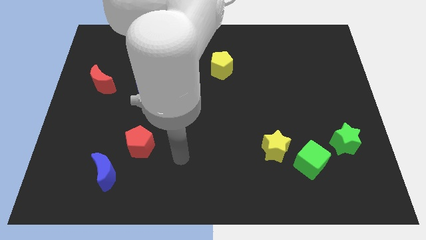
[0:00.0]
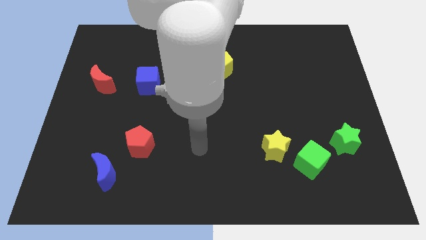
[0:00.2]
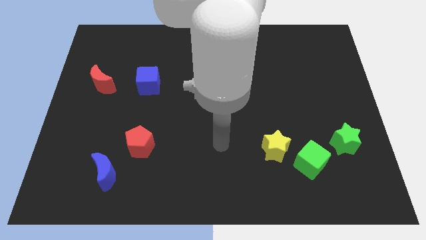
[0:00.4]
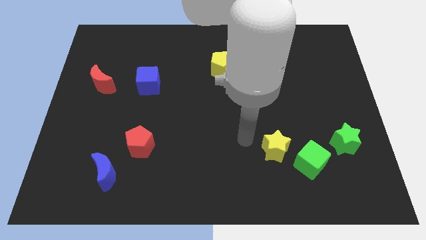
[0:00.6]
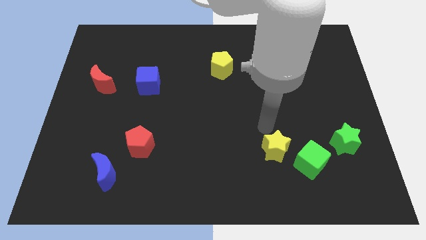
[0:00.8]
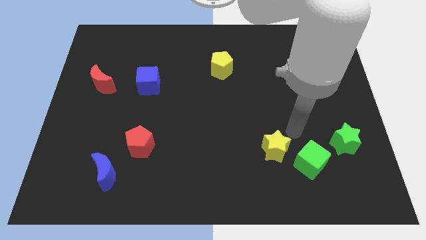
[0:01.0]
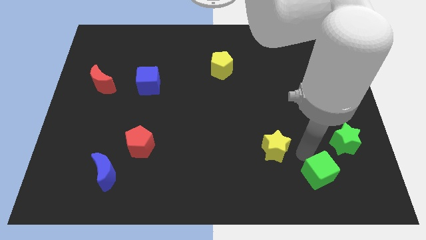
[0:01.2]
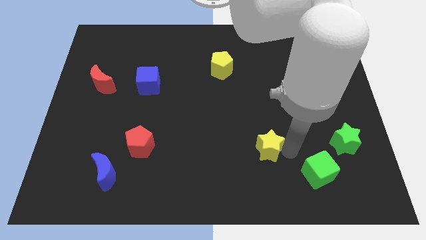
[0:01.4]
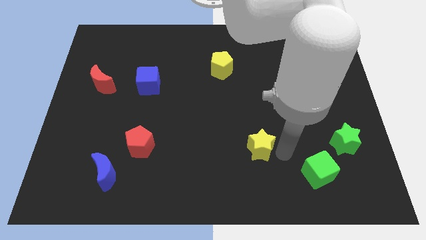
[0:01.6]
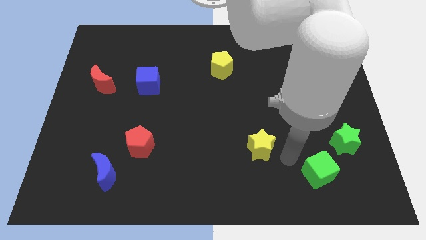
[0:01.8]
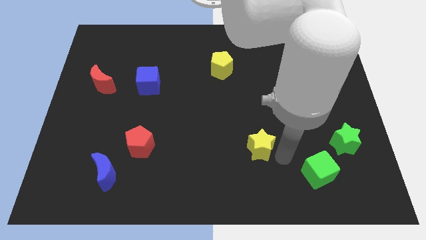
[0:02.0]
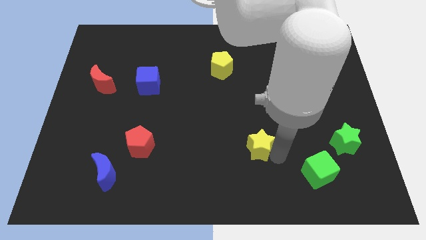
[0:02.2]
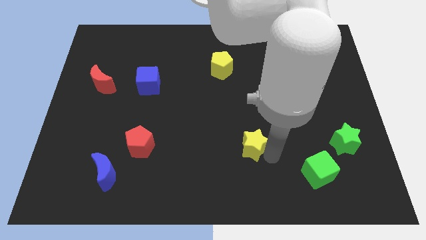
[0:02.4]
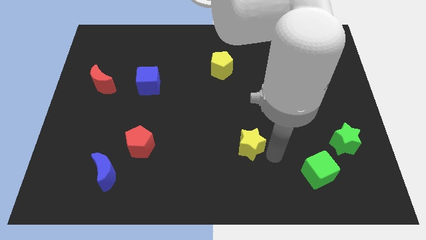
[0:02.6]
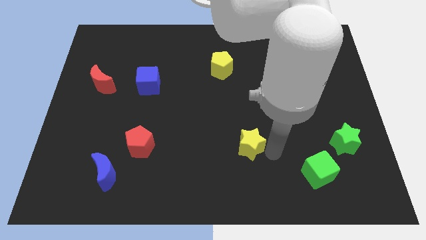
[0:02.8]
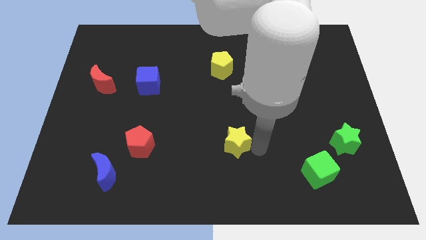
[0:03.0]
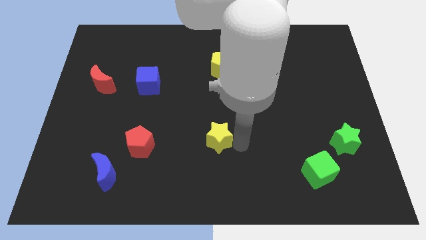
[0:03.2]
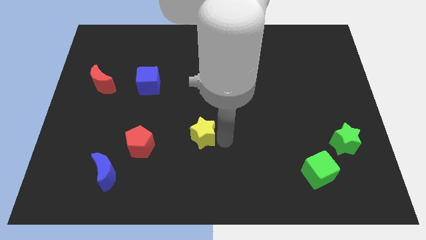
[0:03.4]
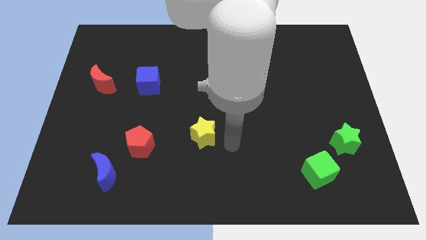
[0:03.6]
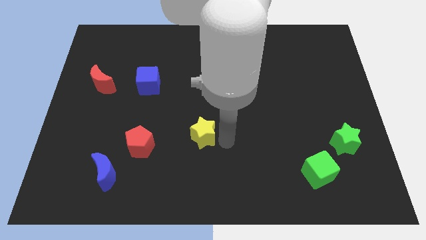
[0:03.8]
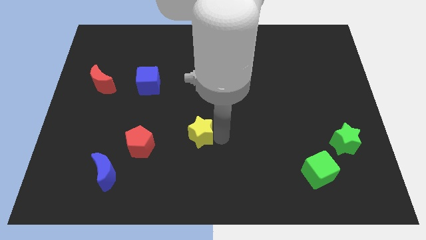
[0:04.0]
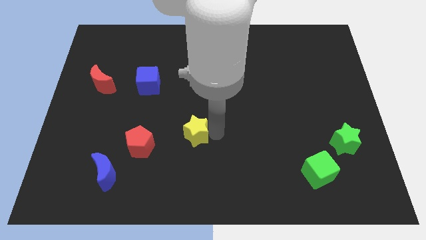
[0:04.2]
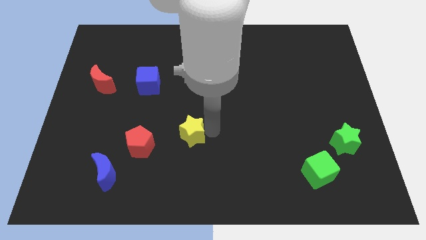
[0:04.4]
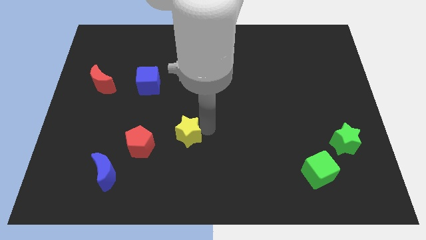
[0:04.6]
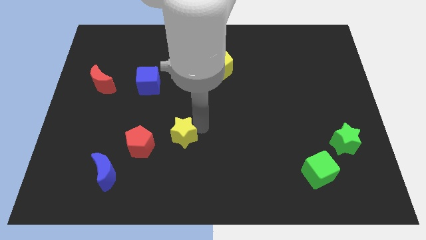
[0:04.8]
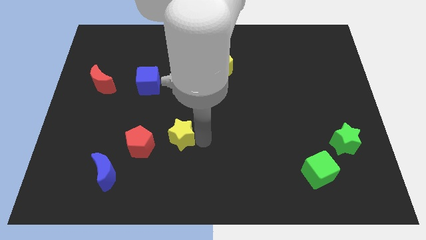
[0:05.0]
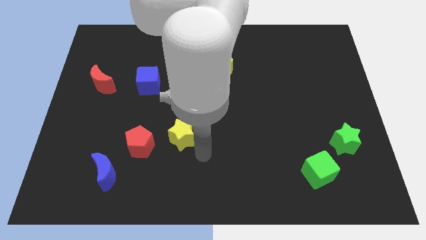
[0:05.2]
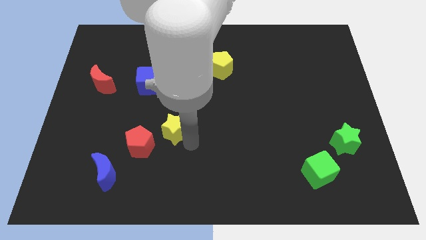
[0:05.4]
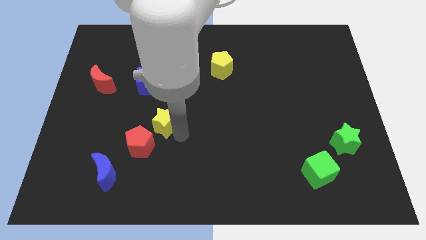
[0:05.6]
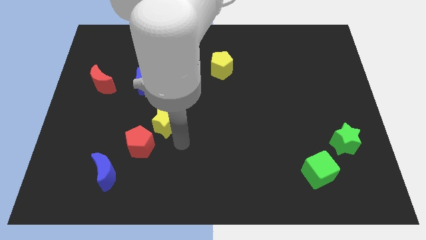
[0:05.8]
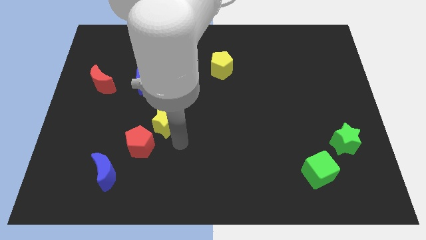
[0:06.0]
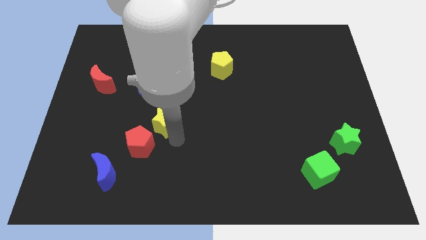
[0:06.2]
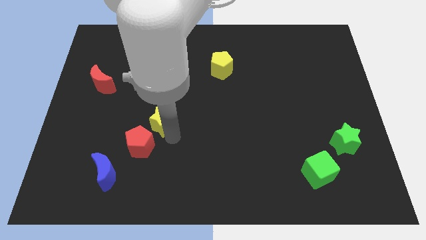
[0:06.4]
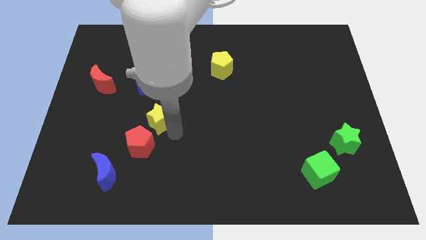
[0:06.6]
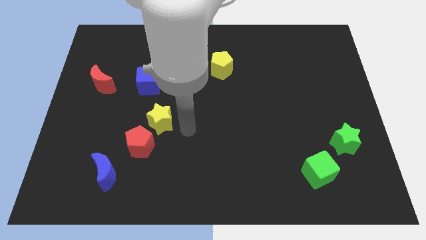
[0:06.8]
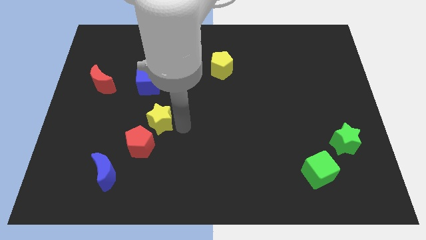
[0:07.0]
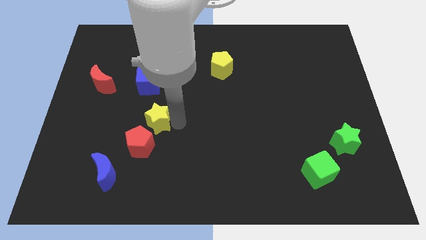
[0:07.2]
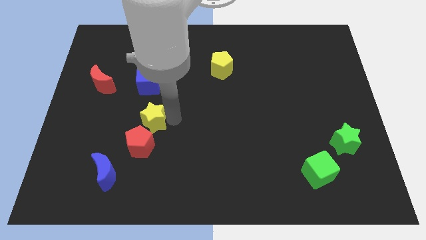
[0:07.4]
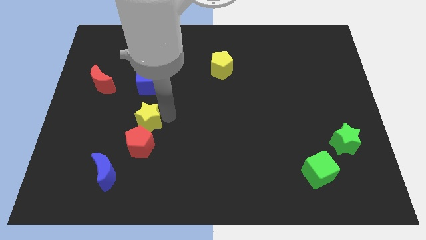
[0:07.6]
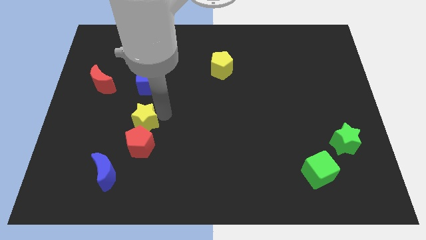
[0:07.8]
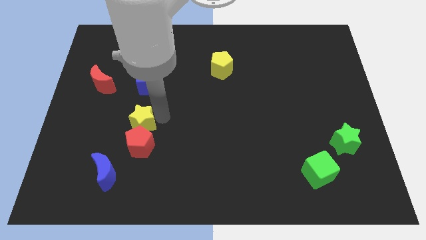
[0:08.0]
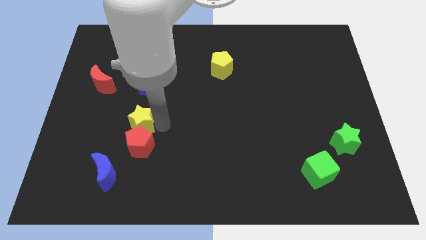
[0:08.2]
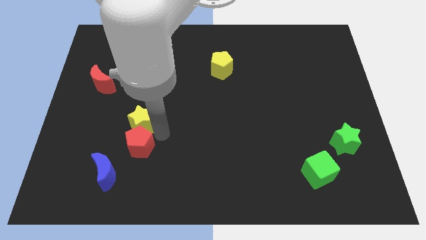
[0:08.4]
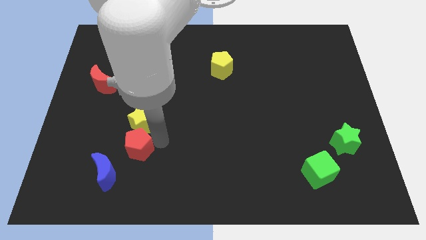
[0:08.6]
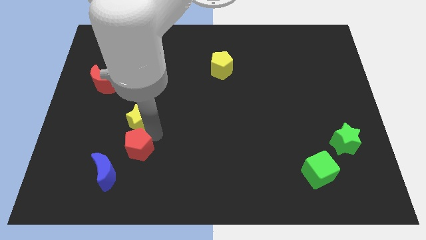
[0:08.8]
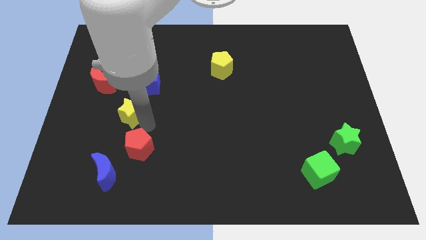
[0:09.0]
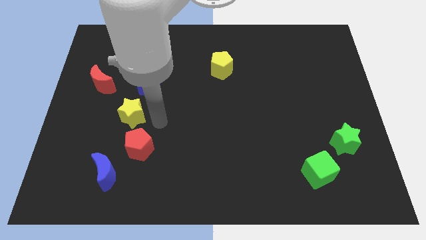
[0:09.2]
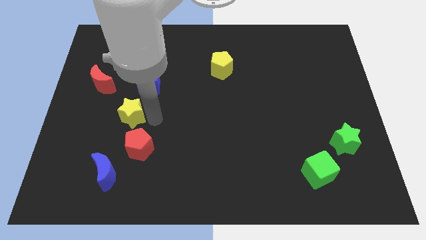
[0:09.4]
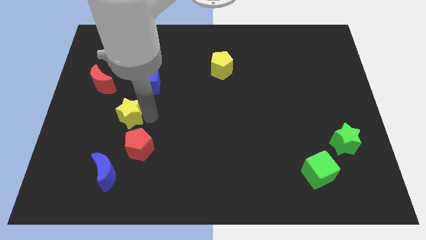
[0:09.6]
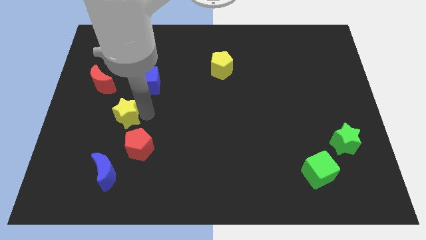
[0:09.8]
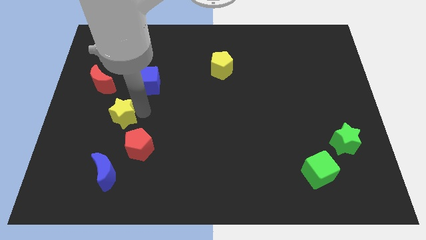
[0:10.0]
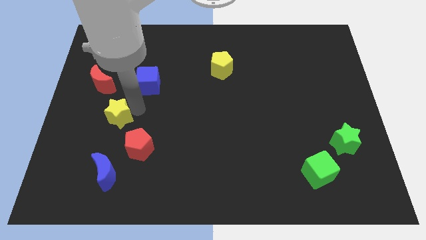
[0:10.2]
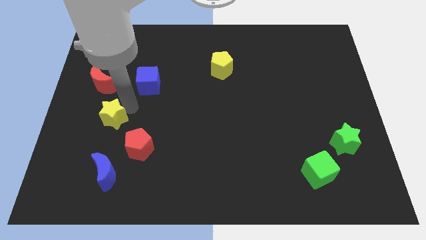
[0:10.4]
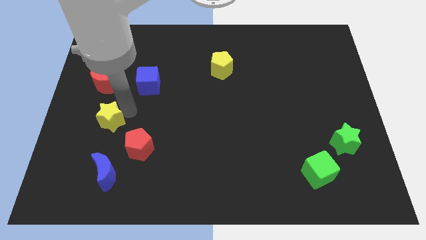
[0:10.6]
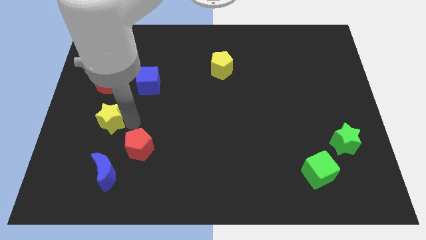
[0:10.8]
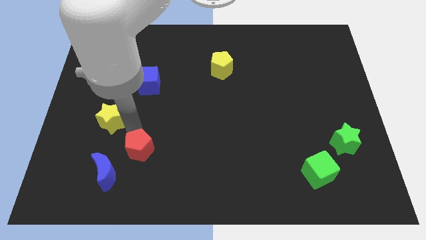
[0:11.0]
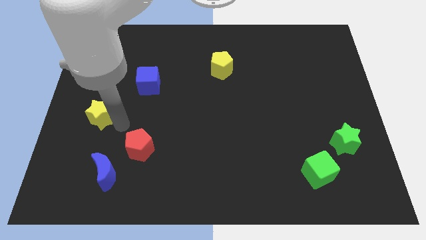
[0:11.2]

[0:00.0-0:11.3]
put the yellow star to the center left

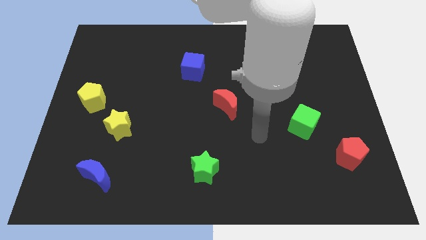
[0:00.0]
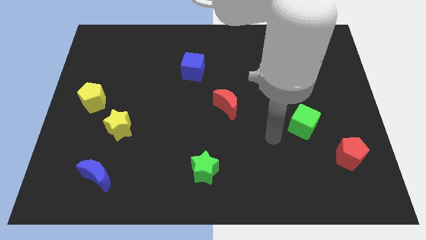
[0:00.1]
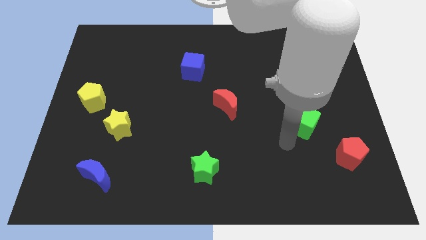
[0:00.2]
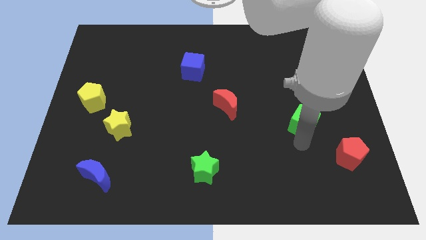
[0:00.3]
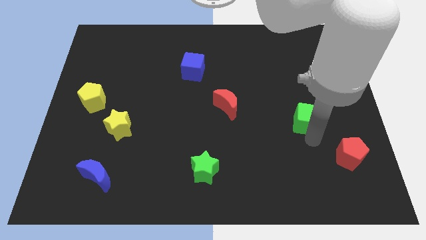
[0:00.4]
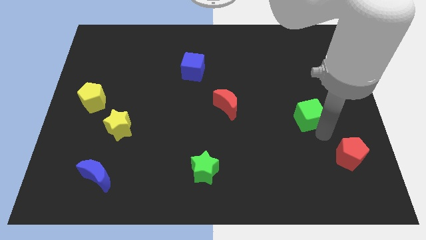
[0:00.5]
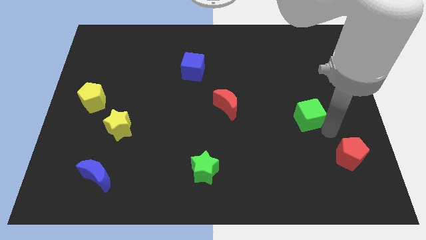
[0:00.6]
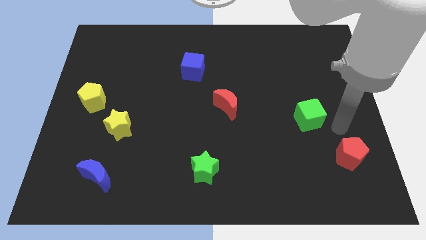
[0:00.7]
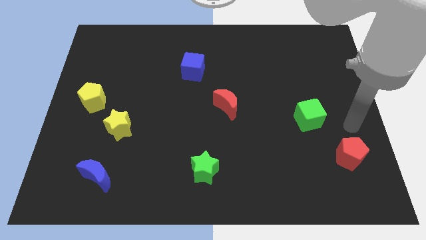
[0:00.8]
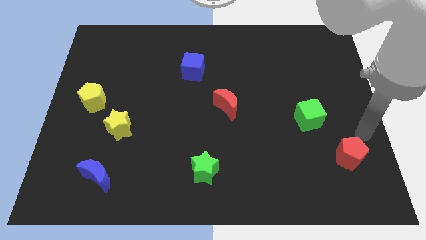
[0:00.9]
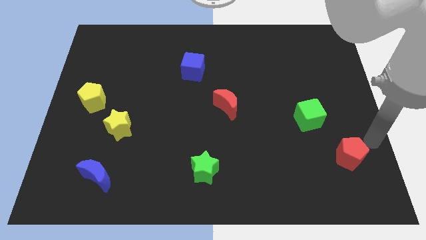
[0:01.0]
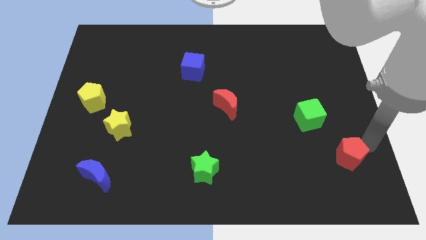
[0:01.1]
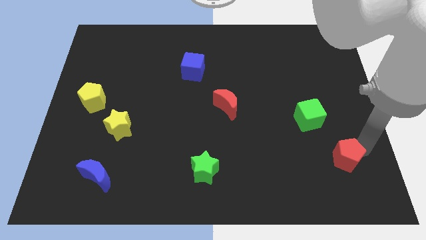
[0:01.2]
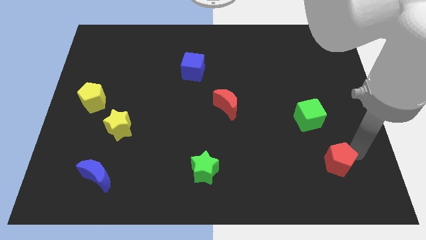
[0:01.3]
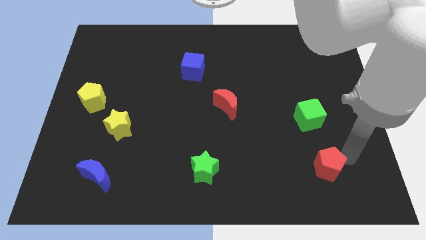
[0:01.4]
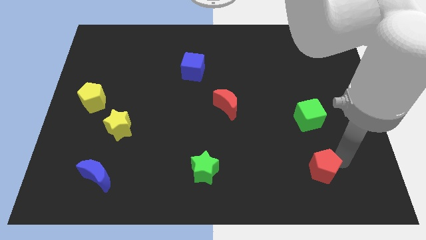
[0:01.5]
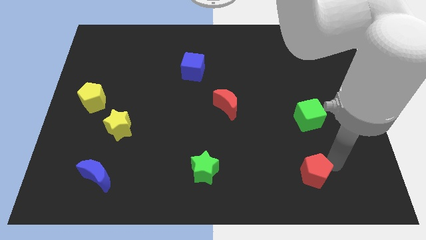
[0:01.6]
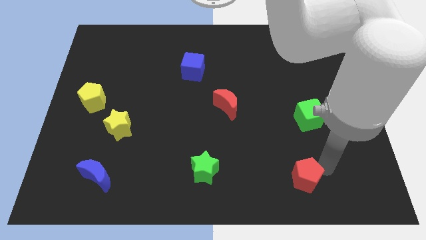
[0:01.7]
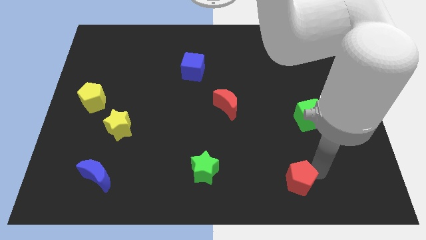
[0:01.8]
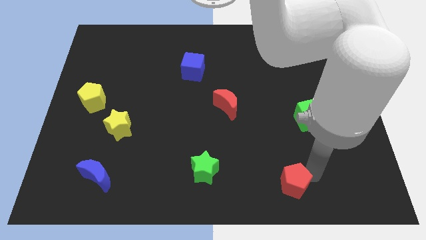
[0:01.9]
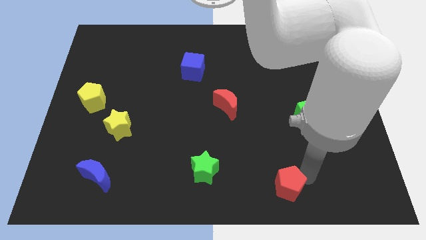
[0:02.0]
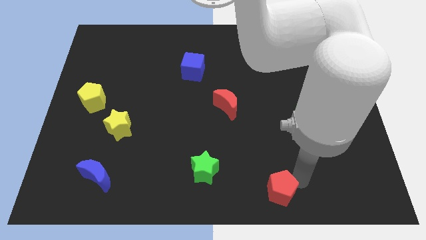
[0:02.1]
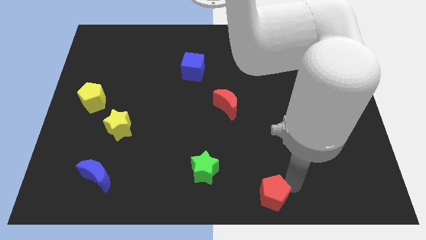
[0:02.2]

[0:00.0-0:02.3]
push the red pentagon to the bottom
